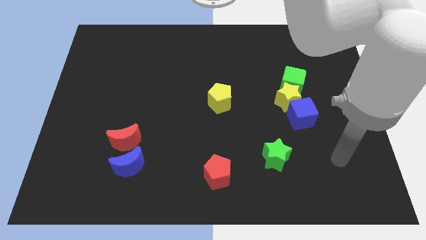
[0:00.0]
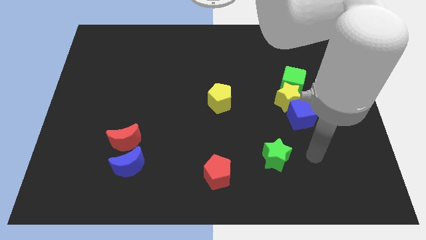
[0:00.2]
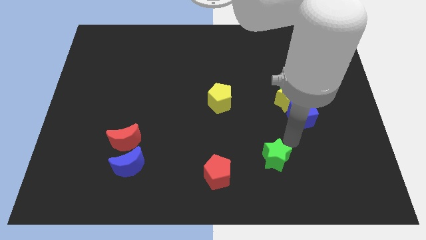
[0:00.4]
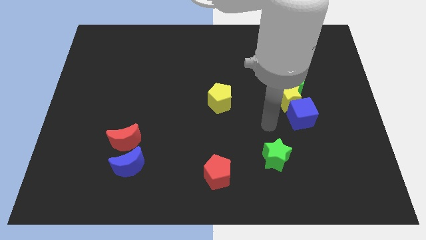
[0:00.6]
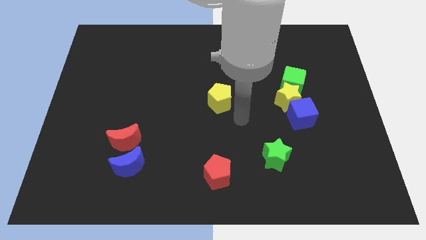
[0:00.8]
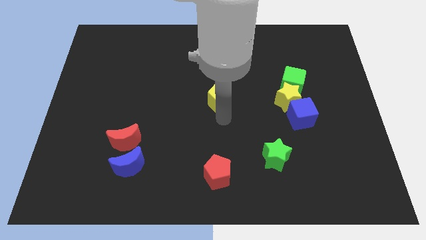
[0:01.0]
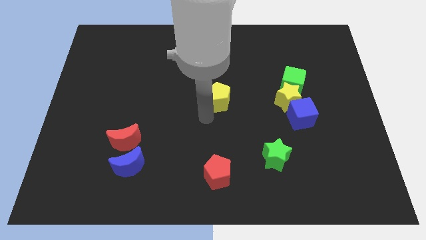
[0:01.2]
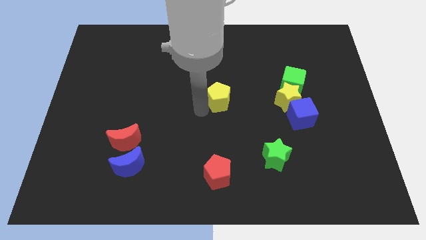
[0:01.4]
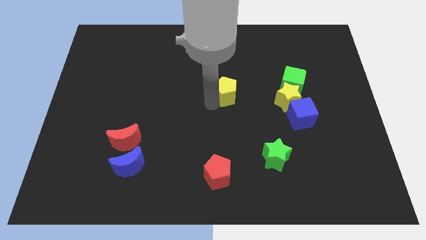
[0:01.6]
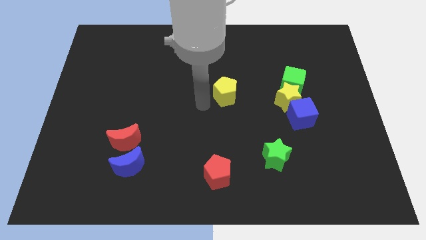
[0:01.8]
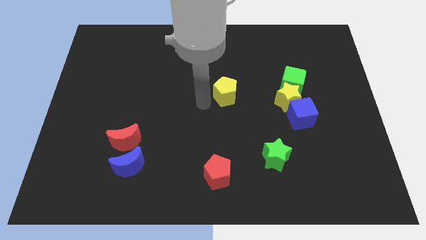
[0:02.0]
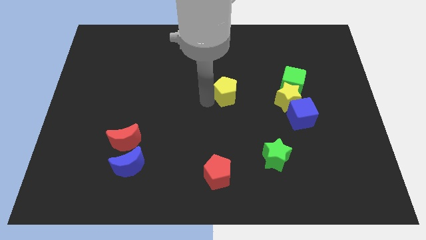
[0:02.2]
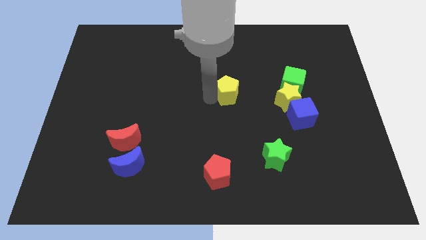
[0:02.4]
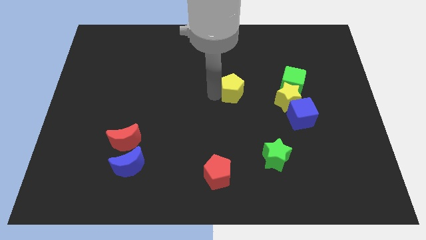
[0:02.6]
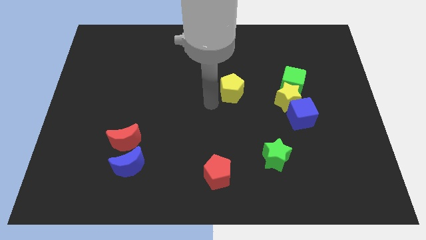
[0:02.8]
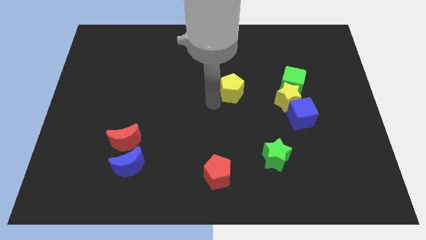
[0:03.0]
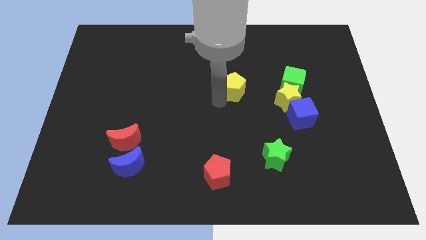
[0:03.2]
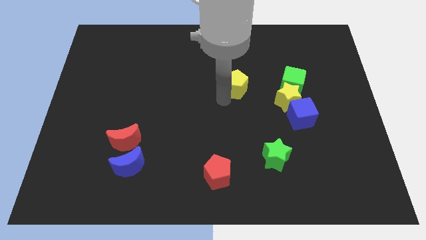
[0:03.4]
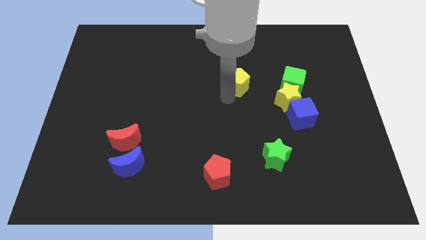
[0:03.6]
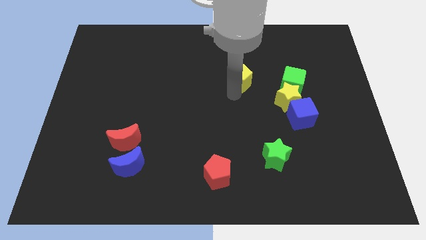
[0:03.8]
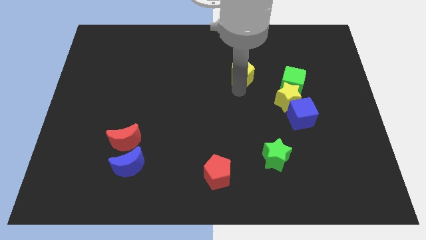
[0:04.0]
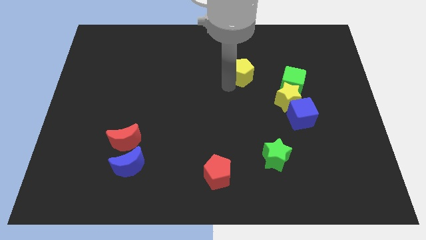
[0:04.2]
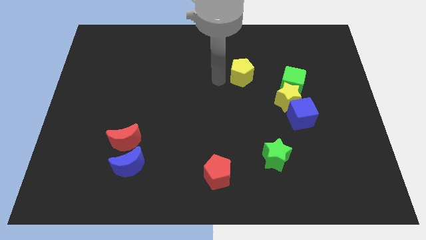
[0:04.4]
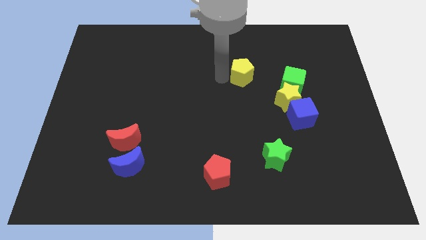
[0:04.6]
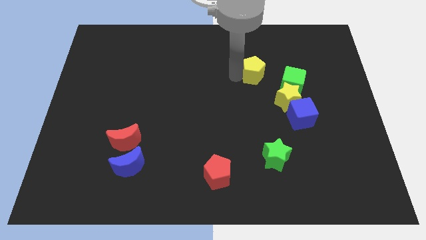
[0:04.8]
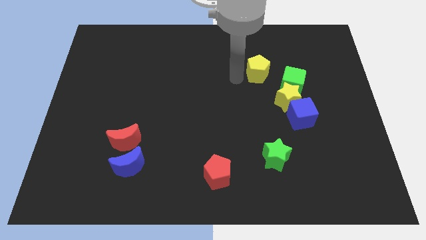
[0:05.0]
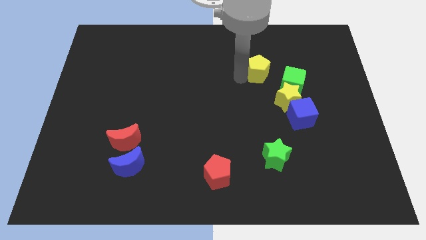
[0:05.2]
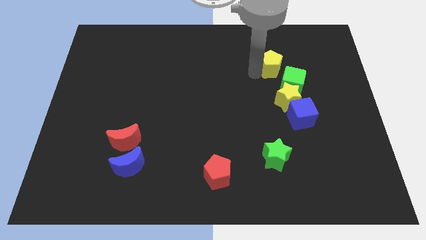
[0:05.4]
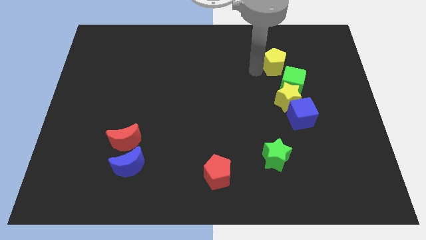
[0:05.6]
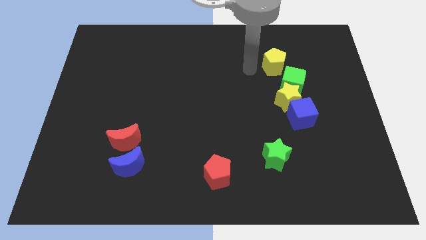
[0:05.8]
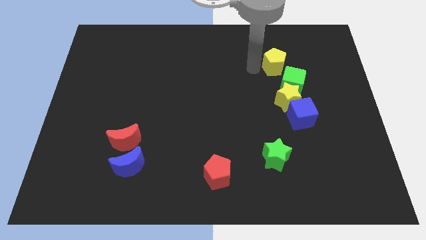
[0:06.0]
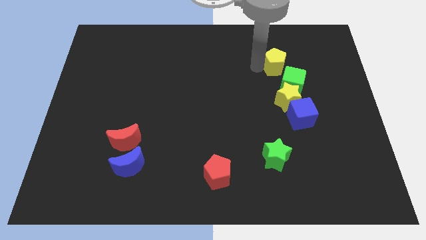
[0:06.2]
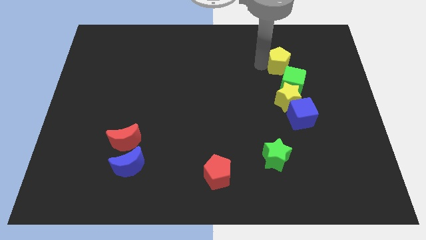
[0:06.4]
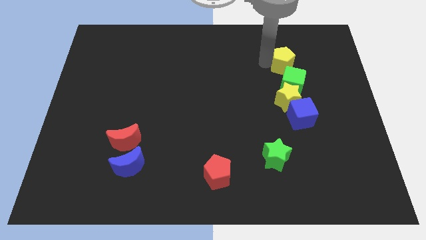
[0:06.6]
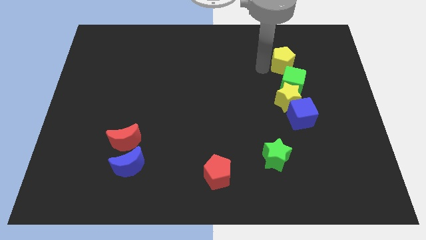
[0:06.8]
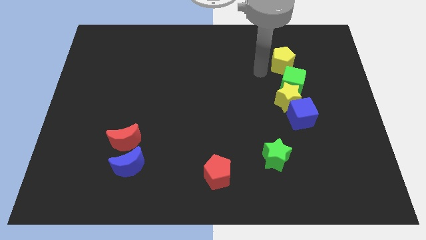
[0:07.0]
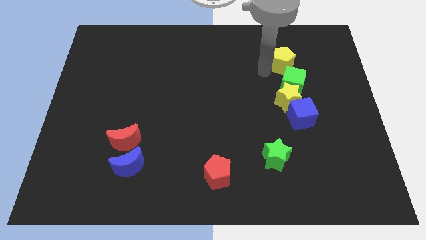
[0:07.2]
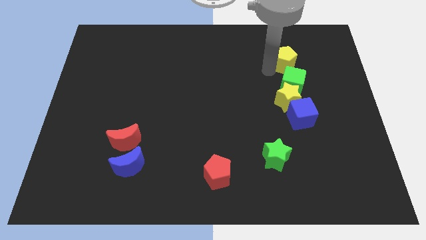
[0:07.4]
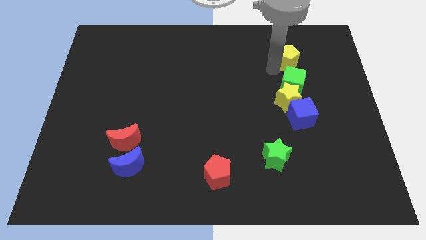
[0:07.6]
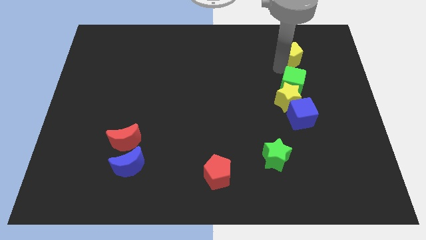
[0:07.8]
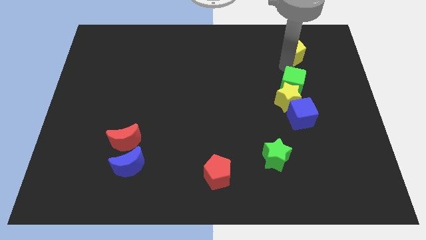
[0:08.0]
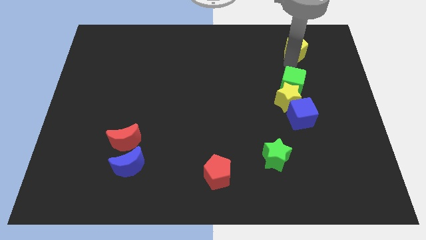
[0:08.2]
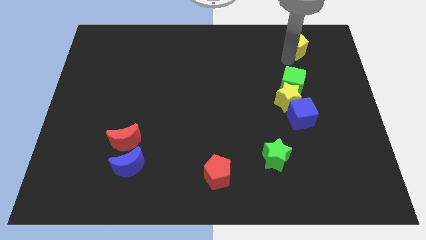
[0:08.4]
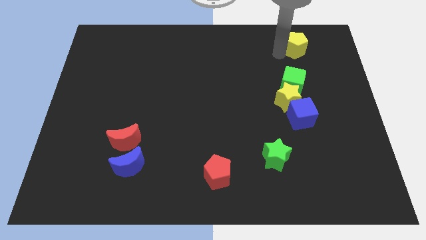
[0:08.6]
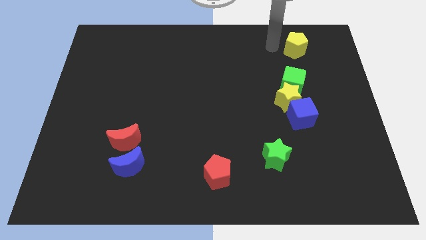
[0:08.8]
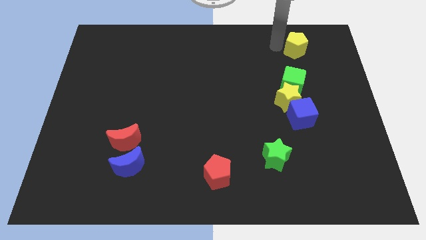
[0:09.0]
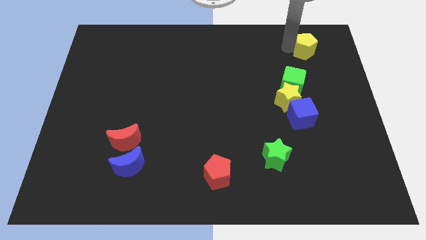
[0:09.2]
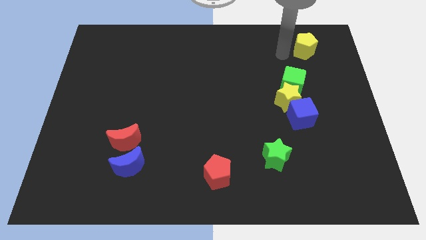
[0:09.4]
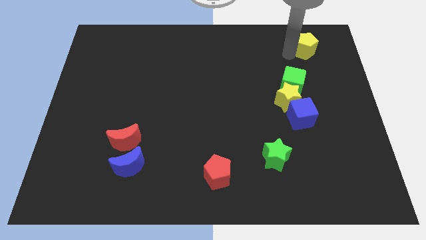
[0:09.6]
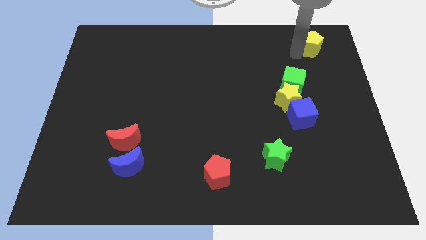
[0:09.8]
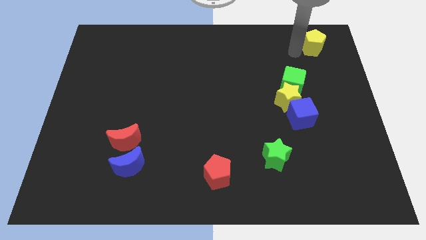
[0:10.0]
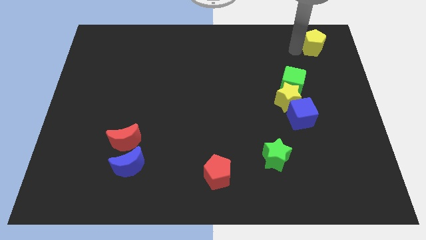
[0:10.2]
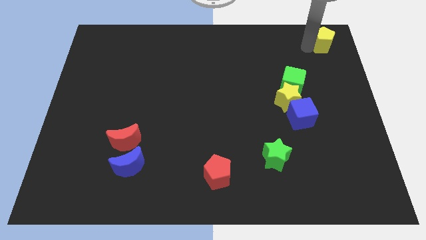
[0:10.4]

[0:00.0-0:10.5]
push the yellow pentagon to the top right corner
